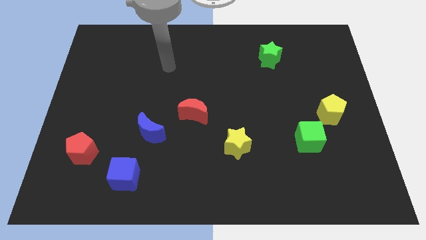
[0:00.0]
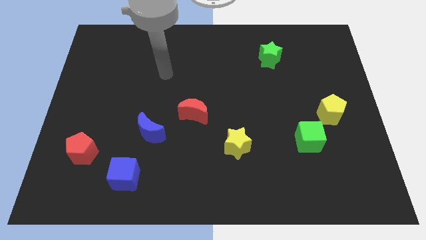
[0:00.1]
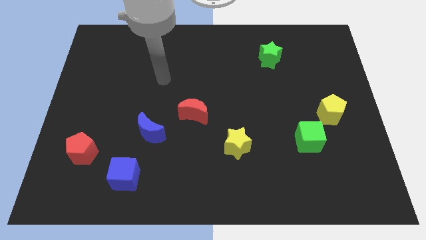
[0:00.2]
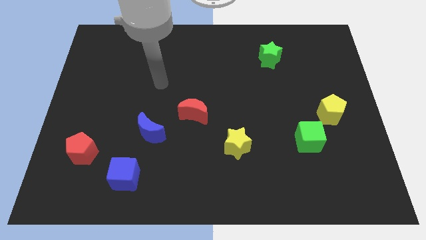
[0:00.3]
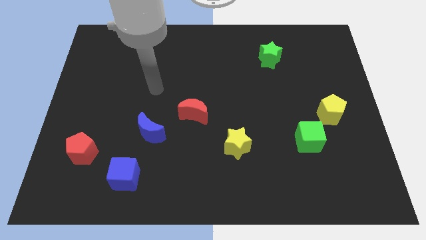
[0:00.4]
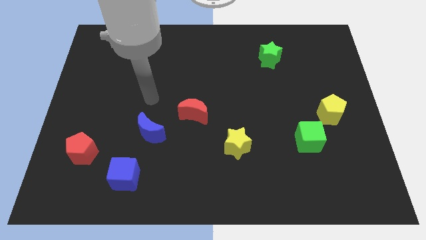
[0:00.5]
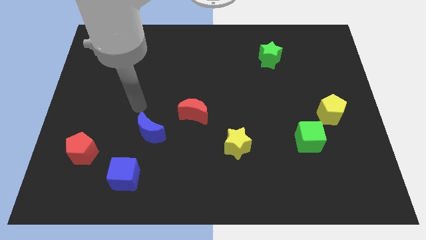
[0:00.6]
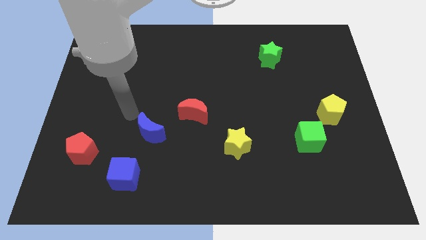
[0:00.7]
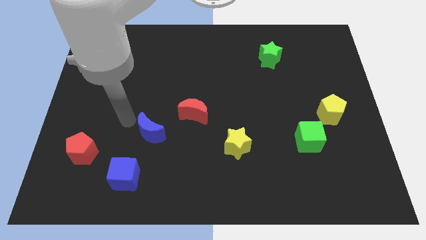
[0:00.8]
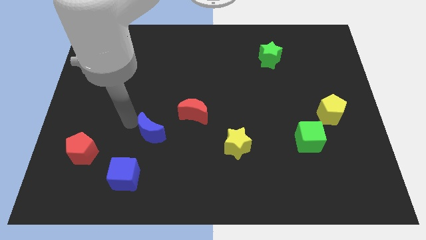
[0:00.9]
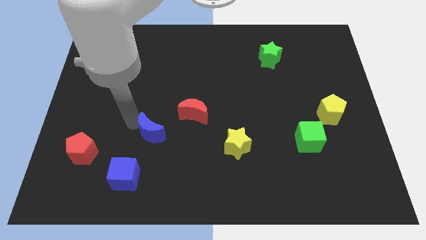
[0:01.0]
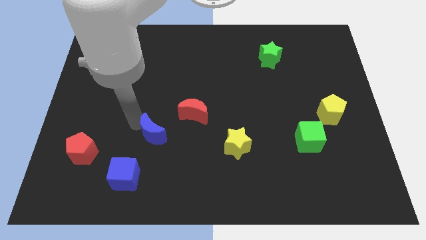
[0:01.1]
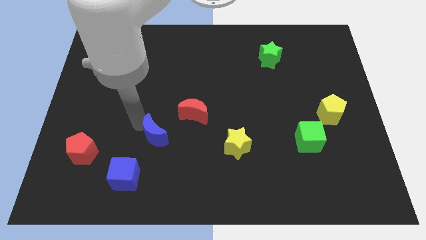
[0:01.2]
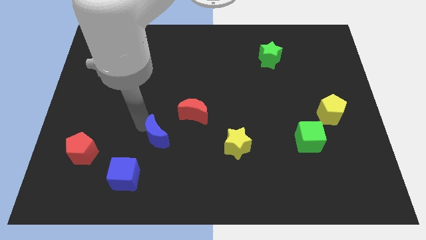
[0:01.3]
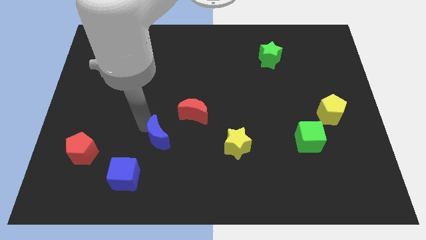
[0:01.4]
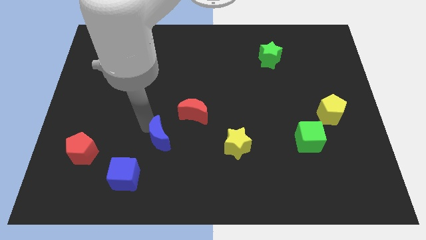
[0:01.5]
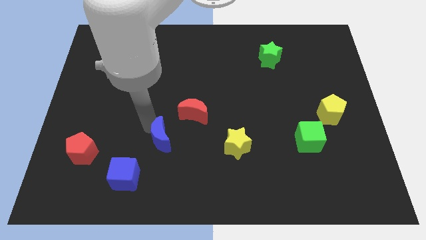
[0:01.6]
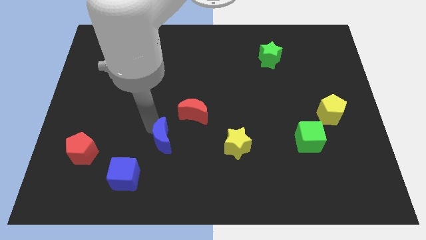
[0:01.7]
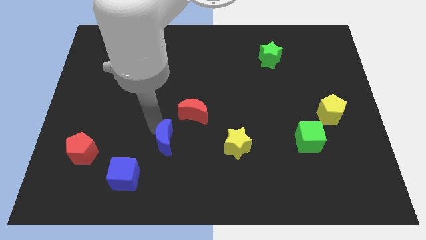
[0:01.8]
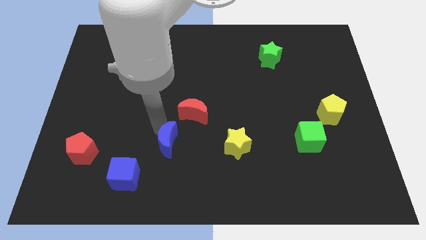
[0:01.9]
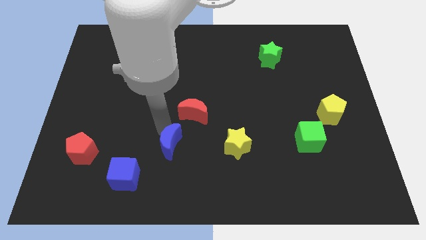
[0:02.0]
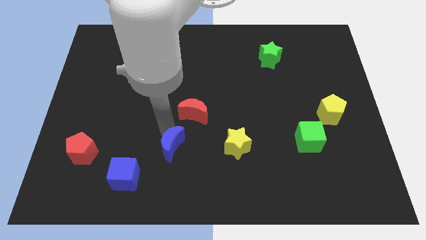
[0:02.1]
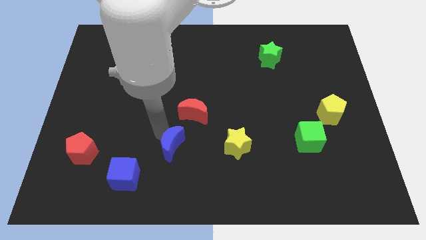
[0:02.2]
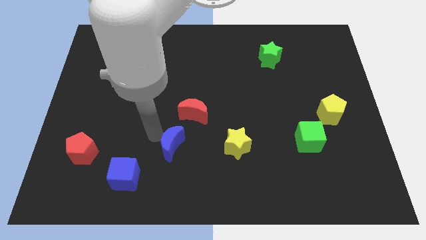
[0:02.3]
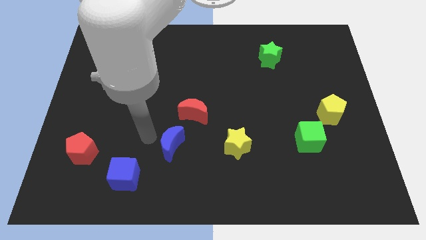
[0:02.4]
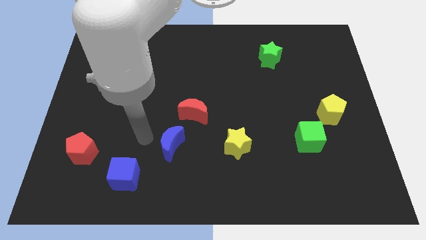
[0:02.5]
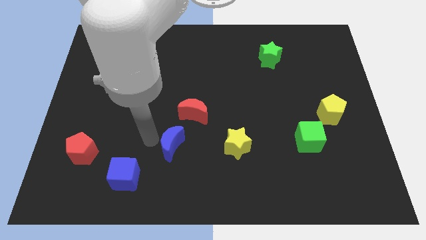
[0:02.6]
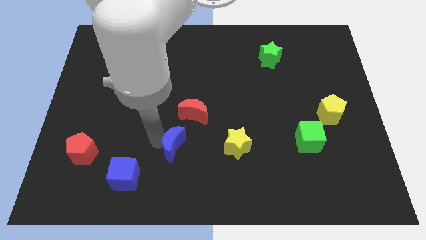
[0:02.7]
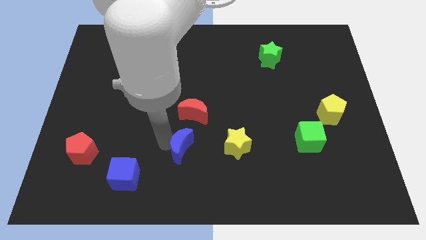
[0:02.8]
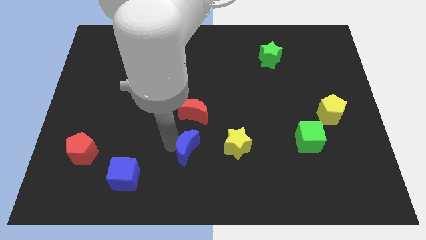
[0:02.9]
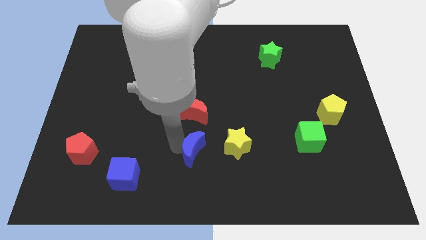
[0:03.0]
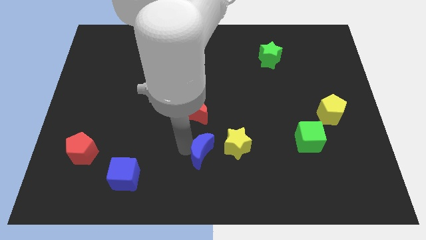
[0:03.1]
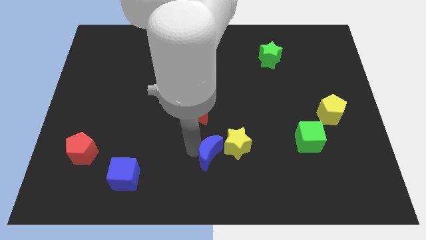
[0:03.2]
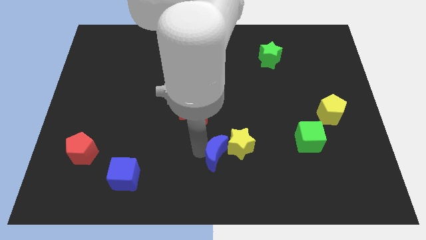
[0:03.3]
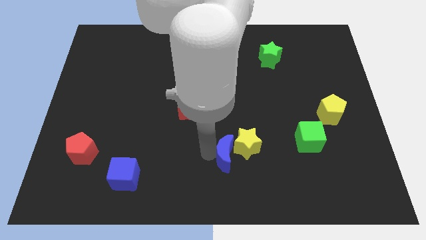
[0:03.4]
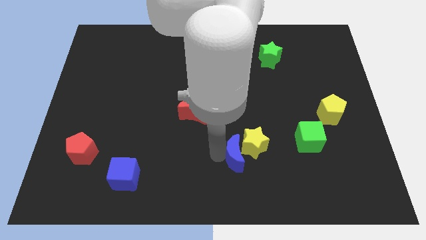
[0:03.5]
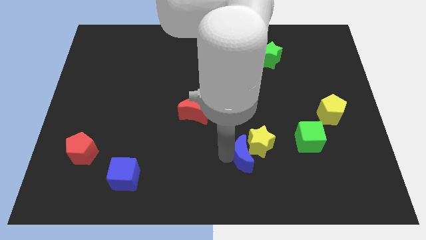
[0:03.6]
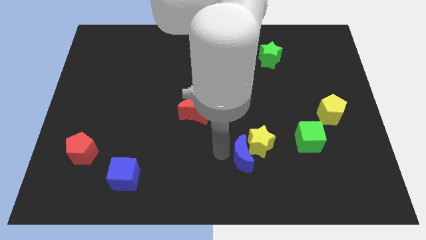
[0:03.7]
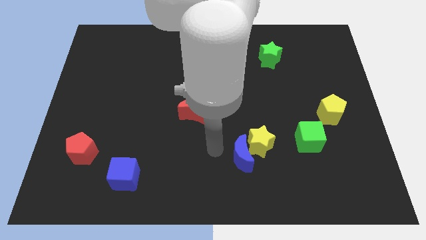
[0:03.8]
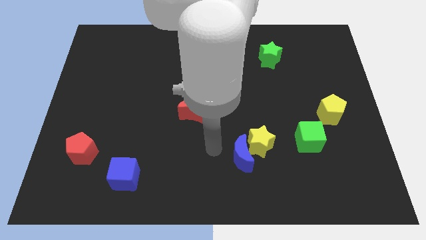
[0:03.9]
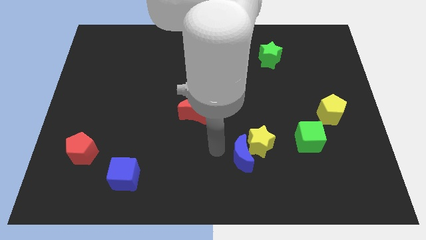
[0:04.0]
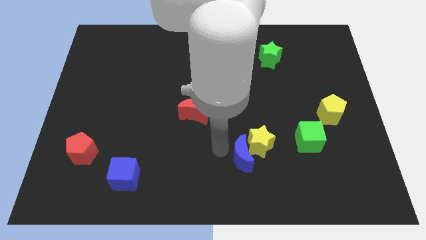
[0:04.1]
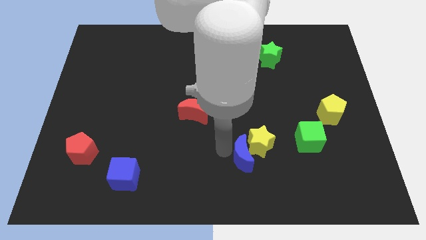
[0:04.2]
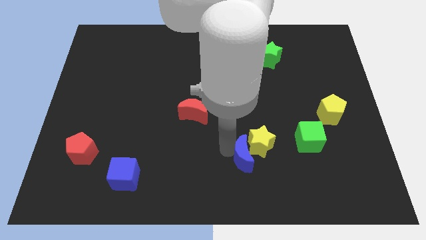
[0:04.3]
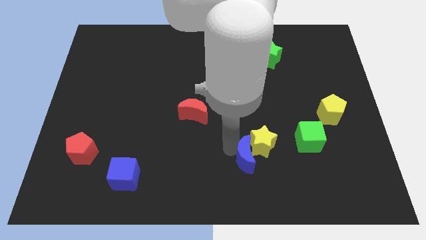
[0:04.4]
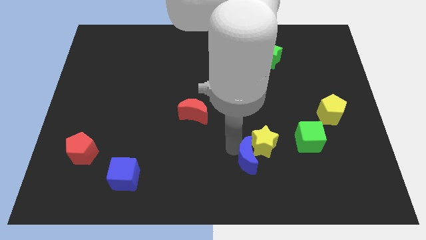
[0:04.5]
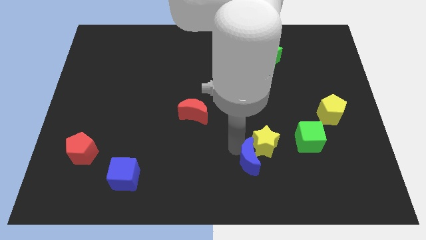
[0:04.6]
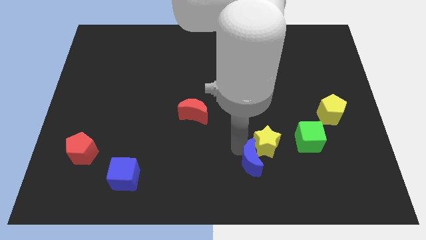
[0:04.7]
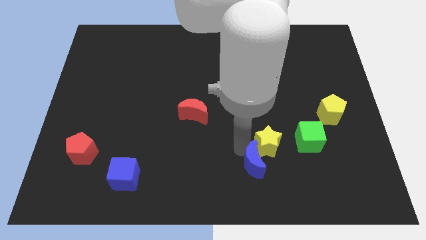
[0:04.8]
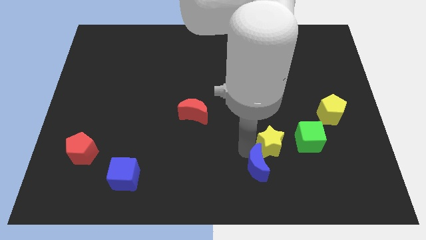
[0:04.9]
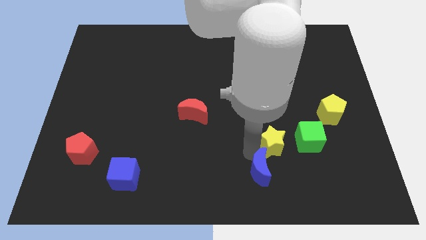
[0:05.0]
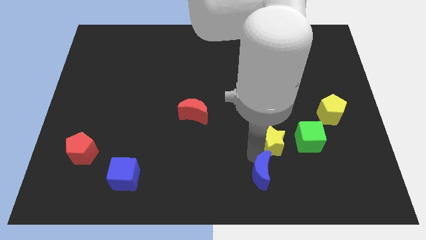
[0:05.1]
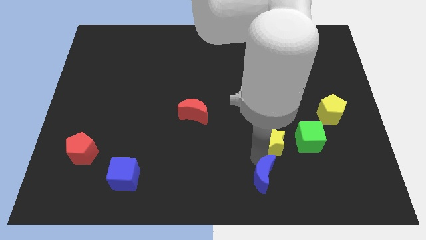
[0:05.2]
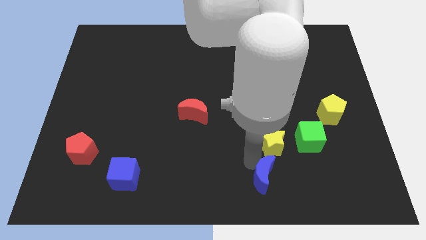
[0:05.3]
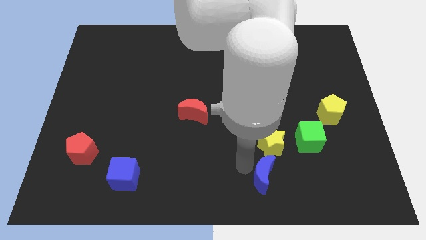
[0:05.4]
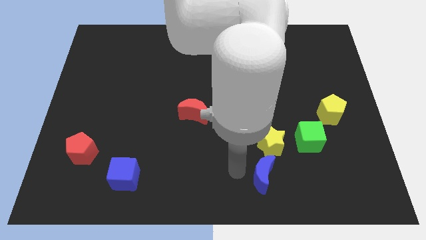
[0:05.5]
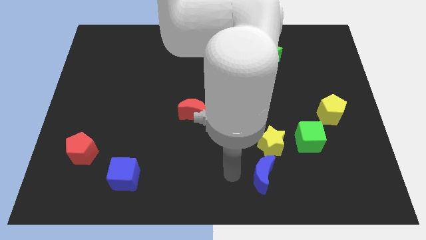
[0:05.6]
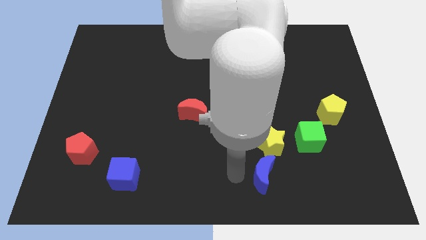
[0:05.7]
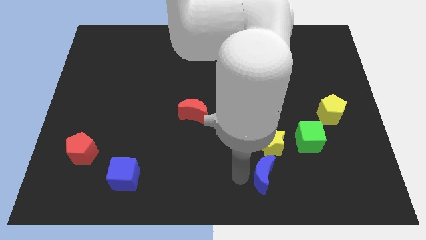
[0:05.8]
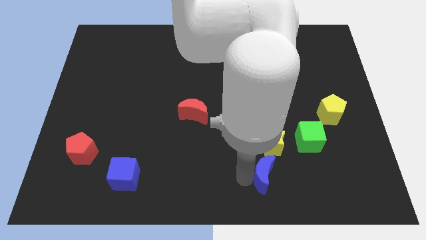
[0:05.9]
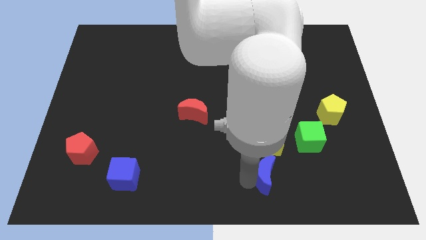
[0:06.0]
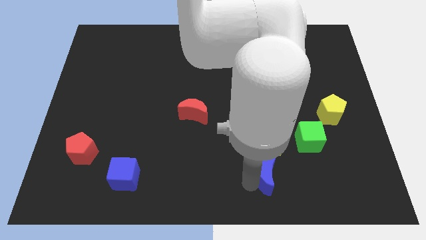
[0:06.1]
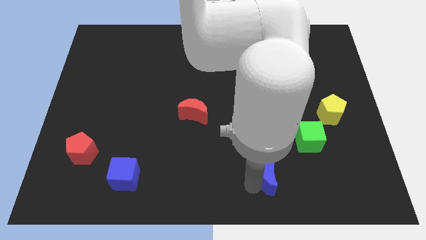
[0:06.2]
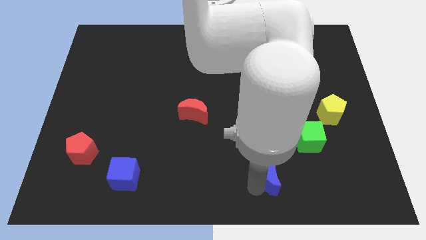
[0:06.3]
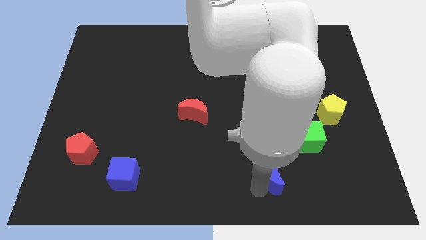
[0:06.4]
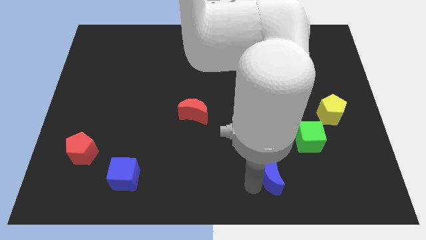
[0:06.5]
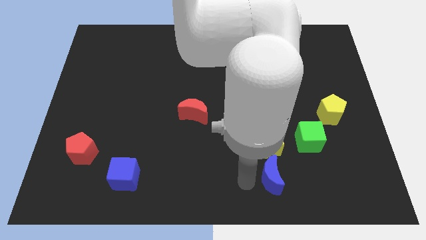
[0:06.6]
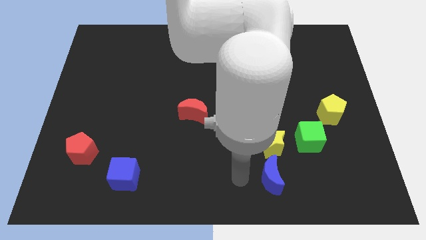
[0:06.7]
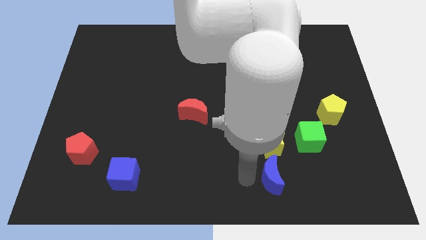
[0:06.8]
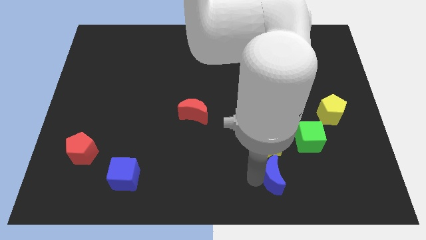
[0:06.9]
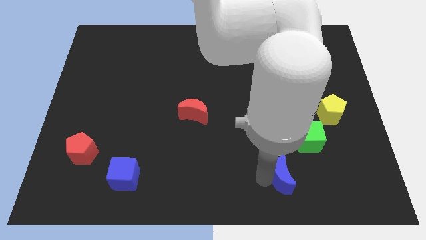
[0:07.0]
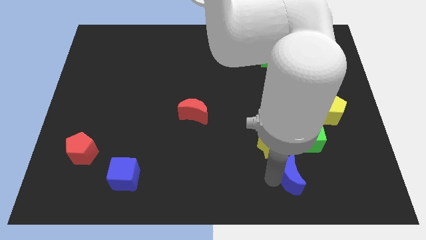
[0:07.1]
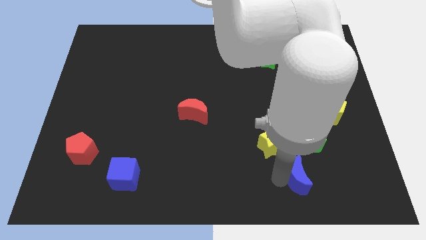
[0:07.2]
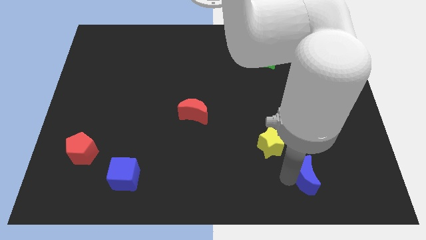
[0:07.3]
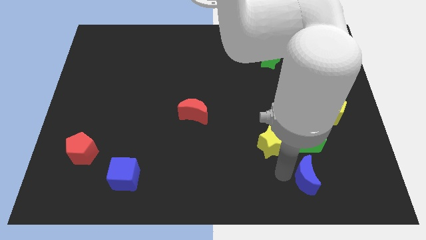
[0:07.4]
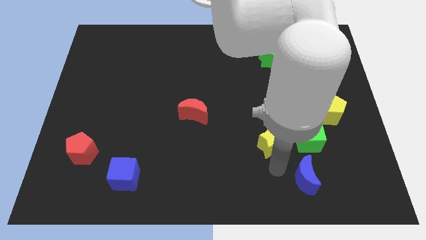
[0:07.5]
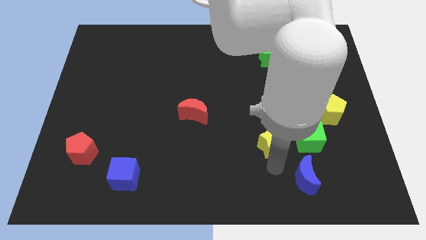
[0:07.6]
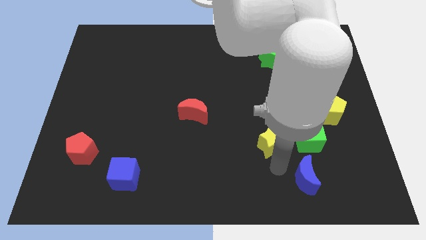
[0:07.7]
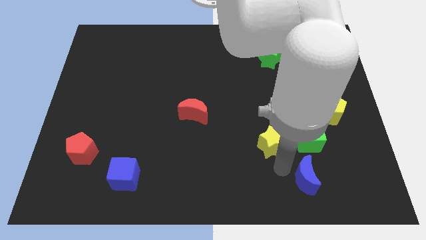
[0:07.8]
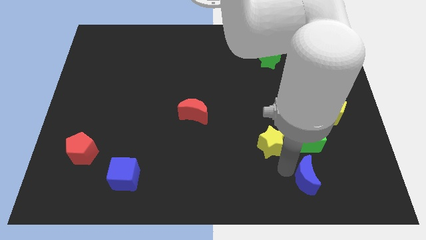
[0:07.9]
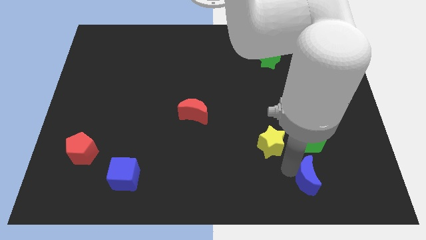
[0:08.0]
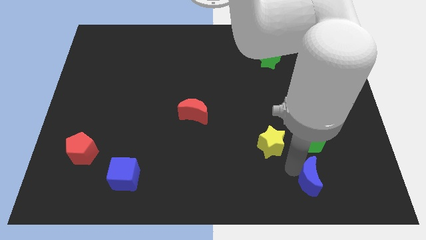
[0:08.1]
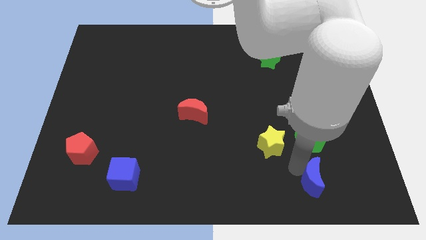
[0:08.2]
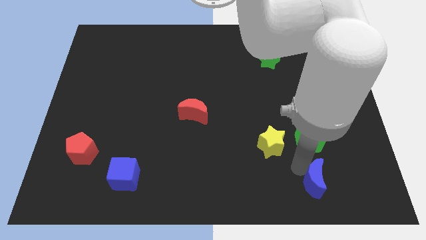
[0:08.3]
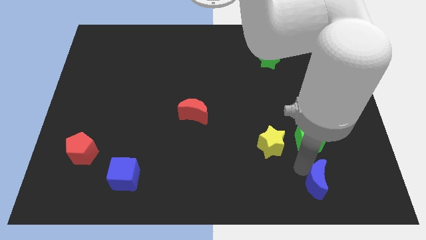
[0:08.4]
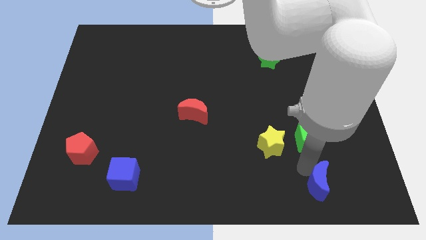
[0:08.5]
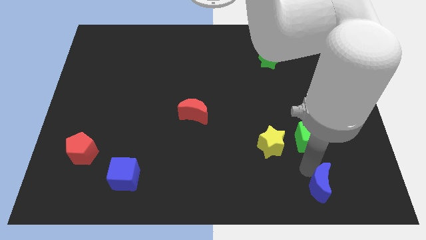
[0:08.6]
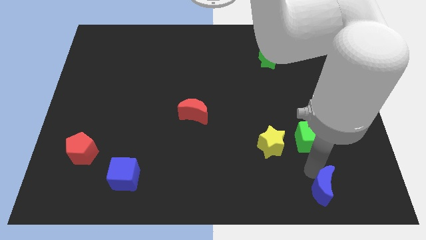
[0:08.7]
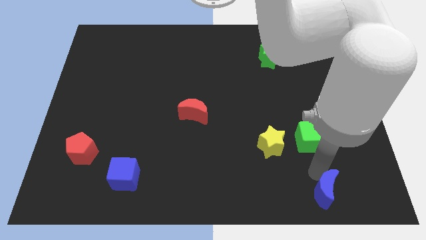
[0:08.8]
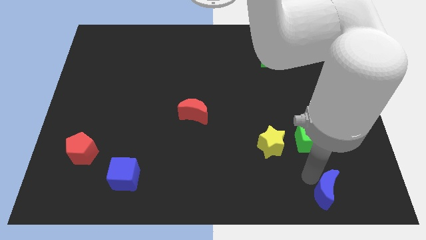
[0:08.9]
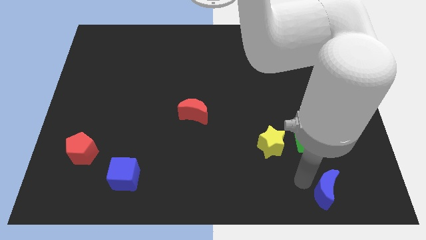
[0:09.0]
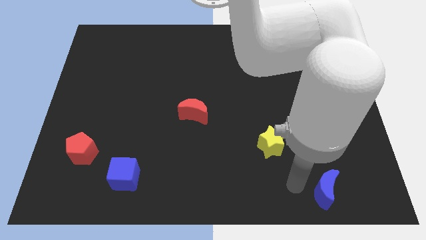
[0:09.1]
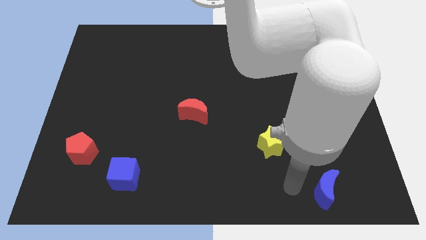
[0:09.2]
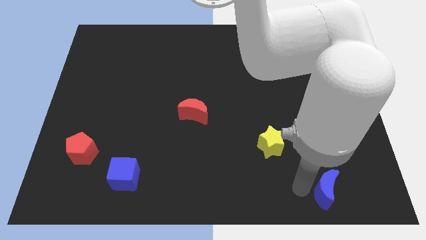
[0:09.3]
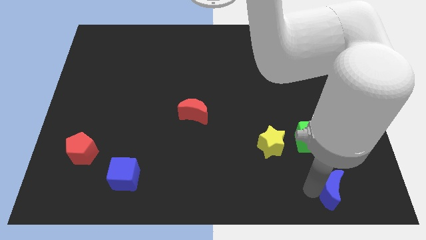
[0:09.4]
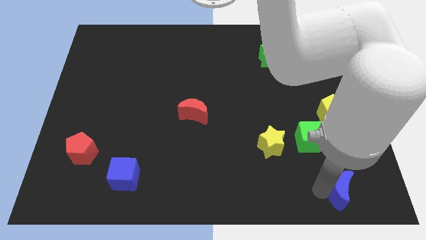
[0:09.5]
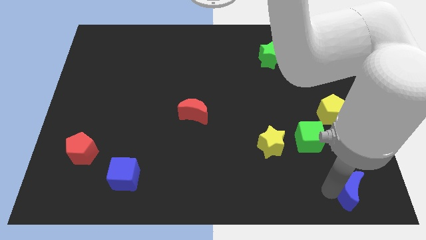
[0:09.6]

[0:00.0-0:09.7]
move the blue moon to the lower right corner
